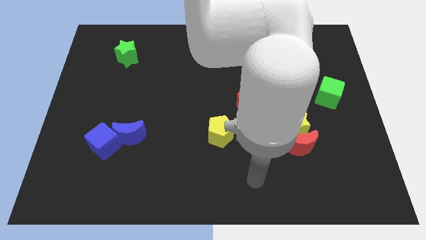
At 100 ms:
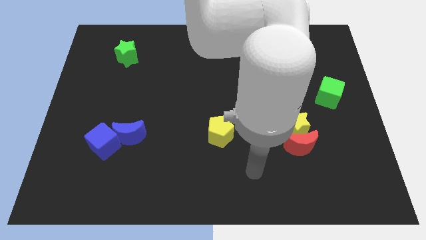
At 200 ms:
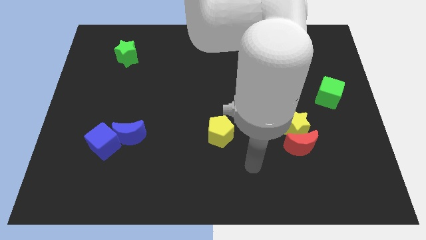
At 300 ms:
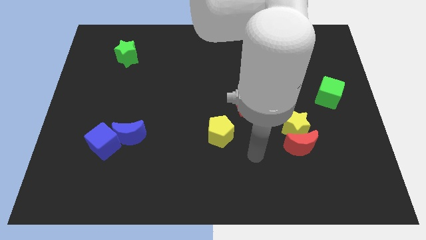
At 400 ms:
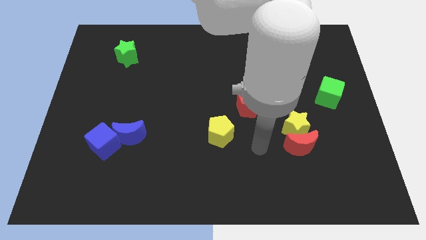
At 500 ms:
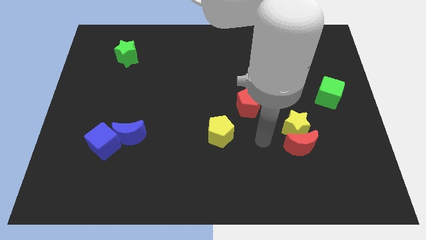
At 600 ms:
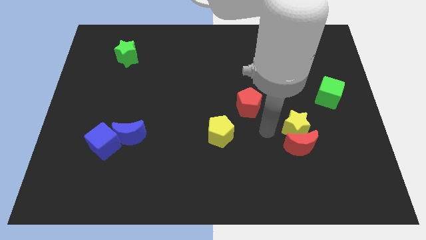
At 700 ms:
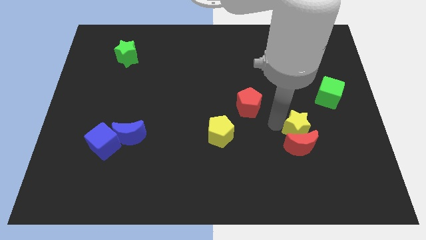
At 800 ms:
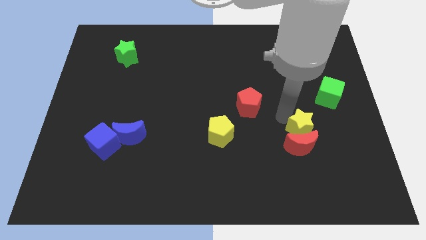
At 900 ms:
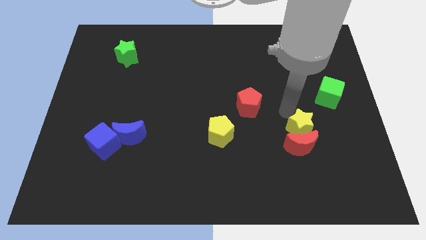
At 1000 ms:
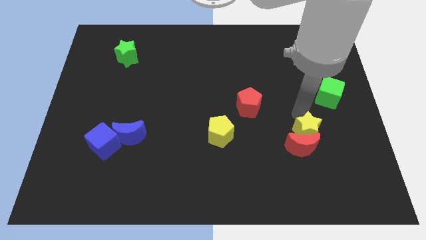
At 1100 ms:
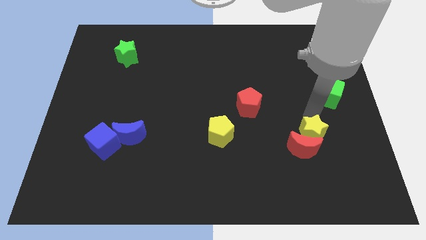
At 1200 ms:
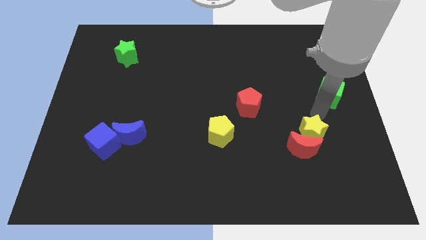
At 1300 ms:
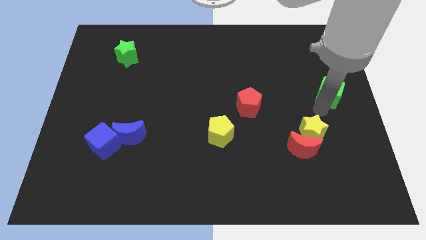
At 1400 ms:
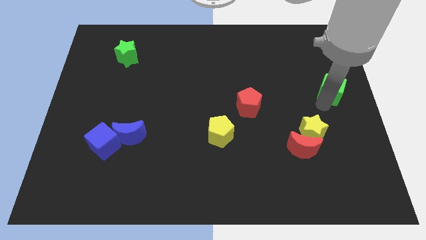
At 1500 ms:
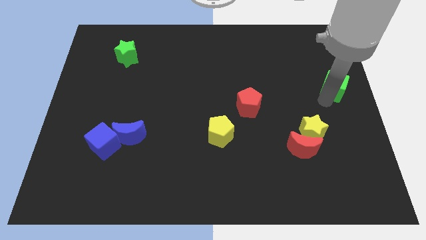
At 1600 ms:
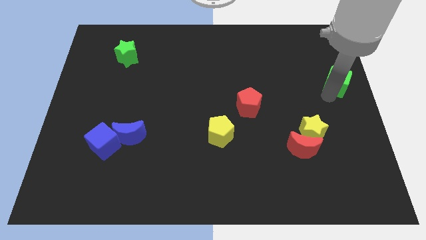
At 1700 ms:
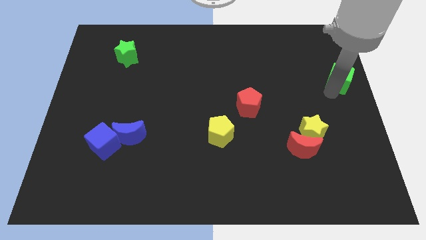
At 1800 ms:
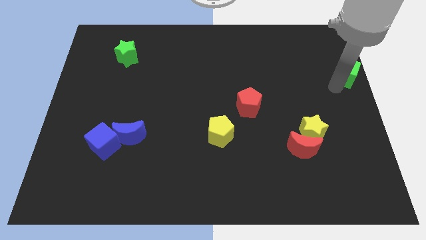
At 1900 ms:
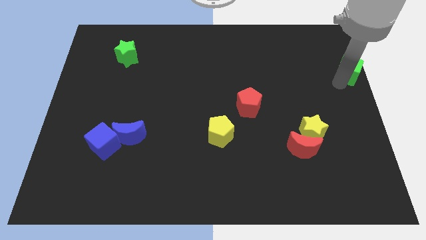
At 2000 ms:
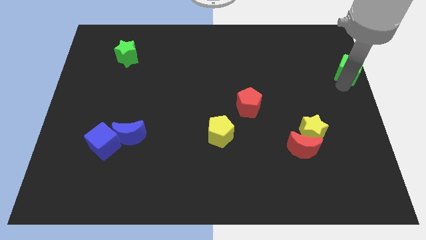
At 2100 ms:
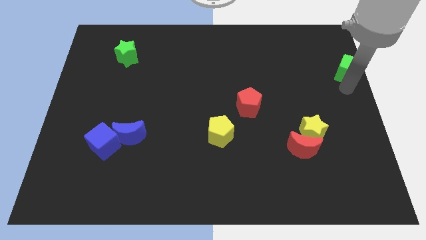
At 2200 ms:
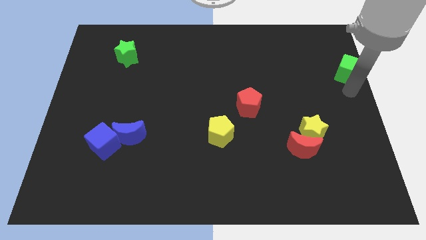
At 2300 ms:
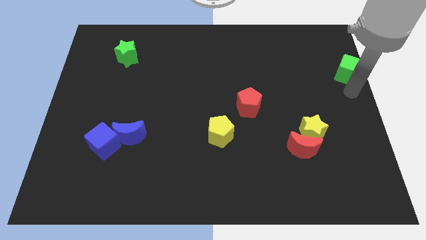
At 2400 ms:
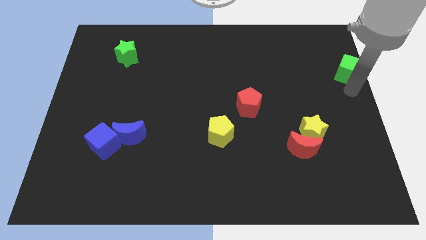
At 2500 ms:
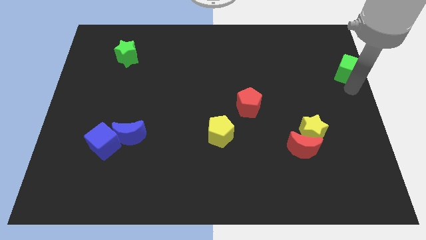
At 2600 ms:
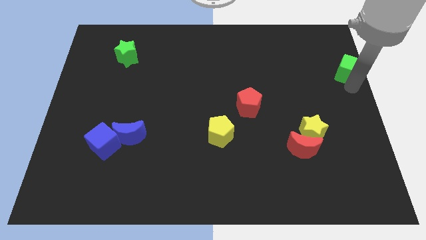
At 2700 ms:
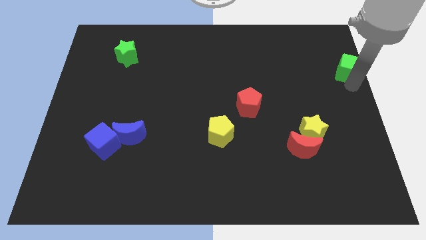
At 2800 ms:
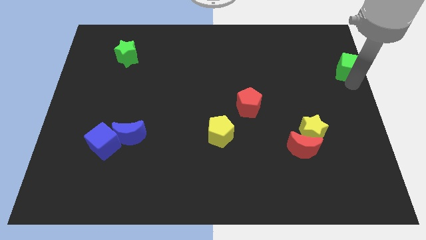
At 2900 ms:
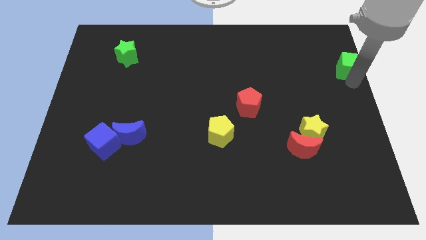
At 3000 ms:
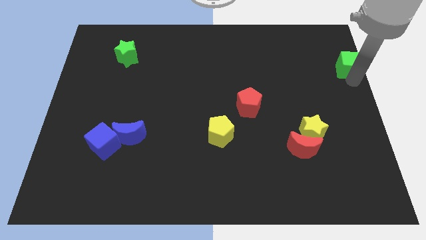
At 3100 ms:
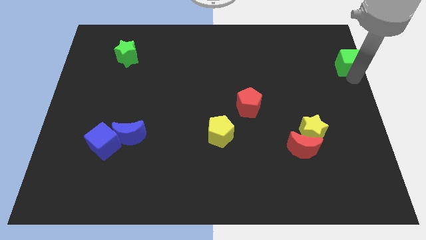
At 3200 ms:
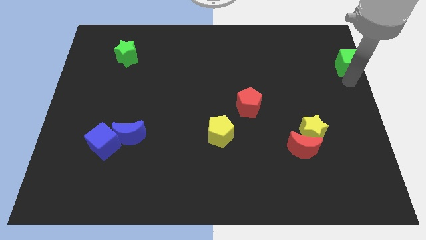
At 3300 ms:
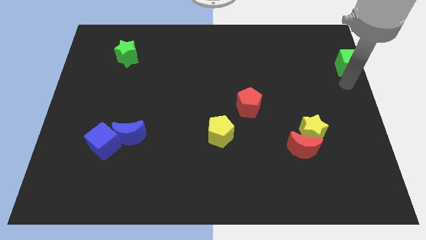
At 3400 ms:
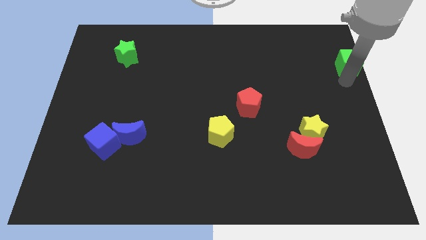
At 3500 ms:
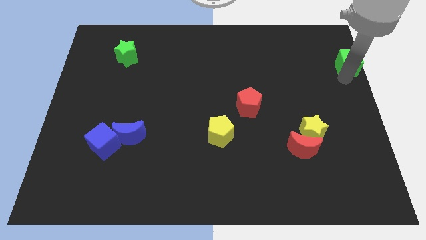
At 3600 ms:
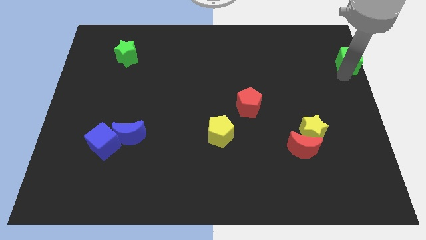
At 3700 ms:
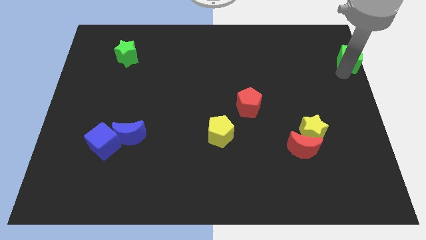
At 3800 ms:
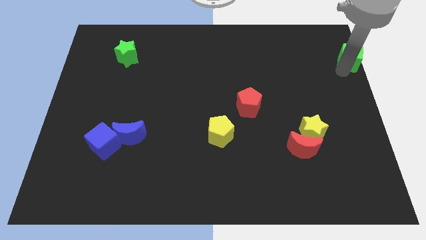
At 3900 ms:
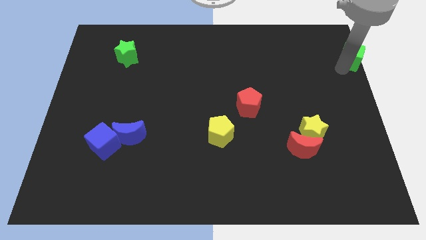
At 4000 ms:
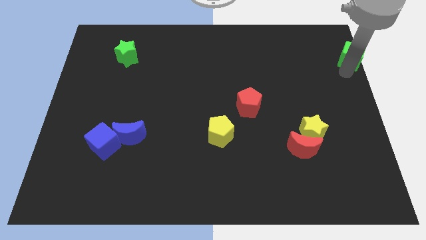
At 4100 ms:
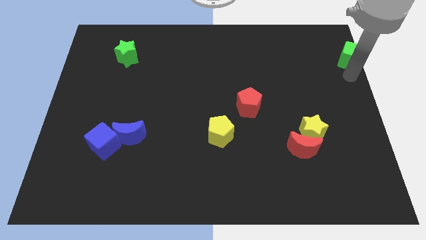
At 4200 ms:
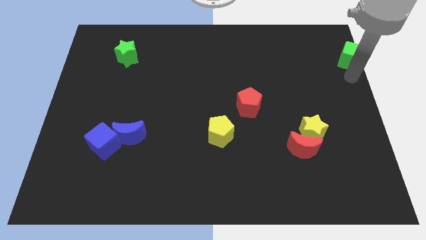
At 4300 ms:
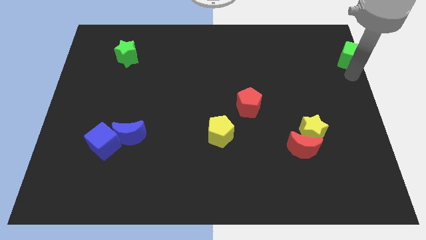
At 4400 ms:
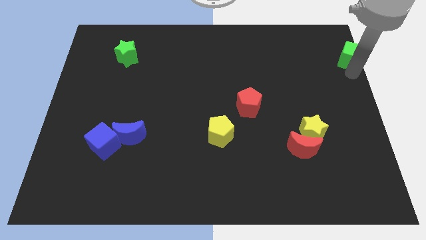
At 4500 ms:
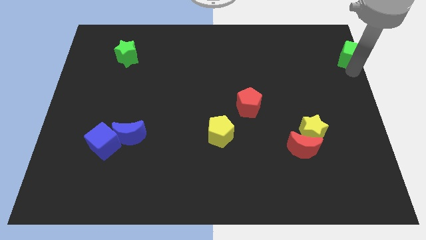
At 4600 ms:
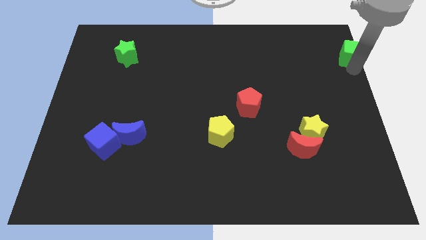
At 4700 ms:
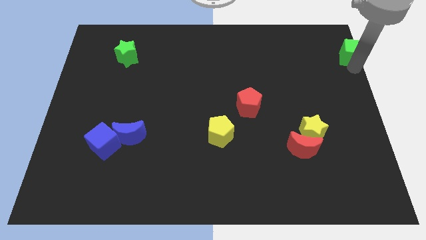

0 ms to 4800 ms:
push the green cube to the top right

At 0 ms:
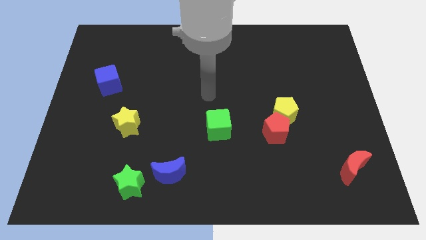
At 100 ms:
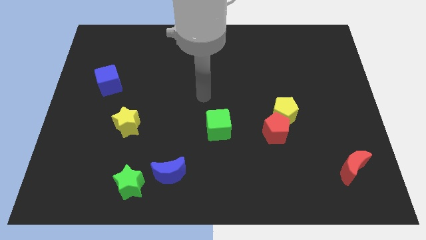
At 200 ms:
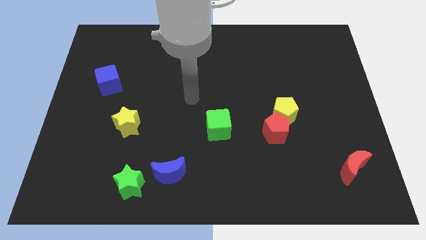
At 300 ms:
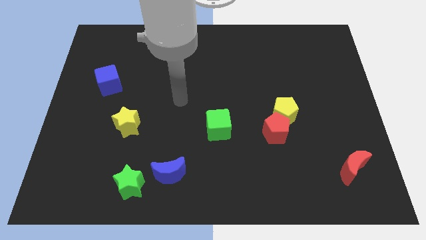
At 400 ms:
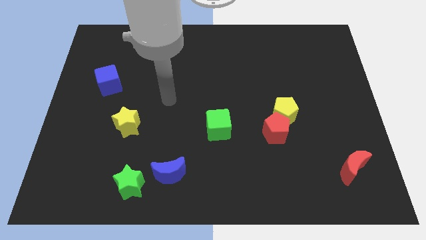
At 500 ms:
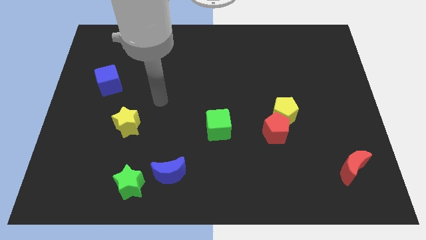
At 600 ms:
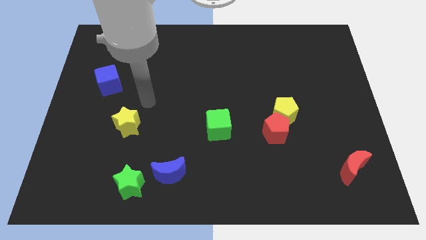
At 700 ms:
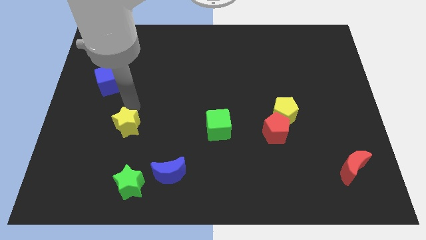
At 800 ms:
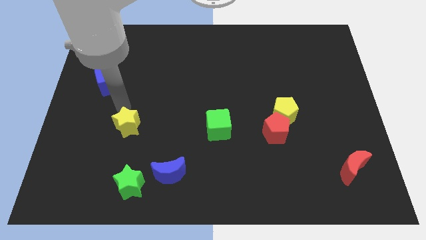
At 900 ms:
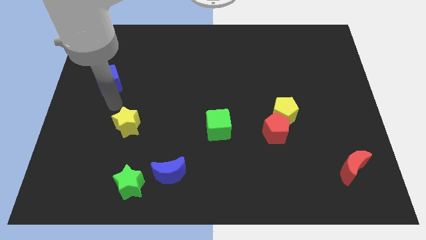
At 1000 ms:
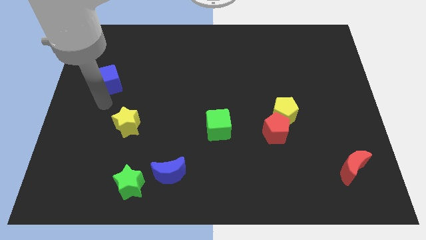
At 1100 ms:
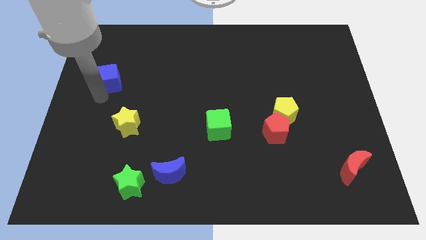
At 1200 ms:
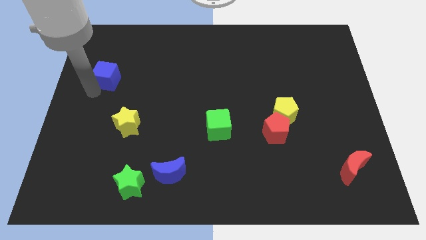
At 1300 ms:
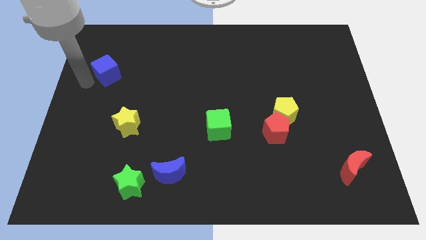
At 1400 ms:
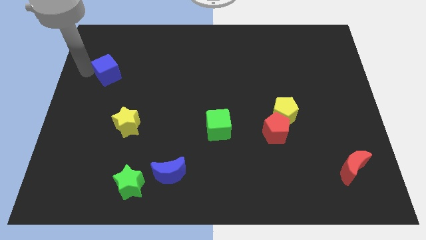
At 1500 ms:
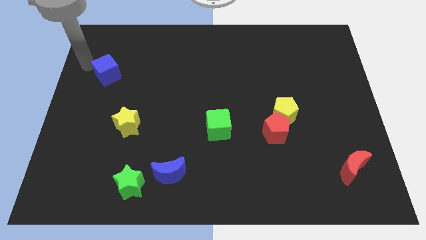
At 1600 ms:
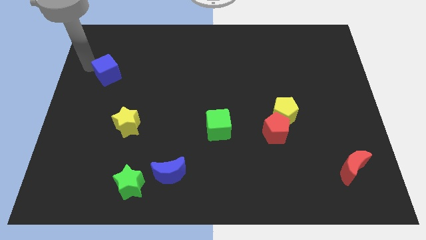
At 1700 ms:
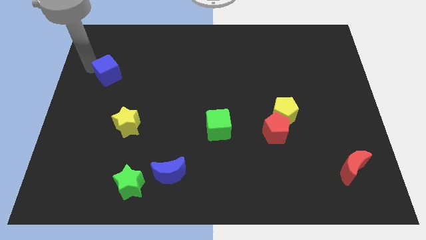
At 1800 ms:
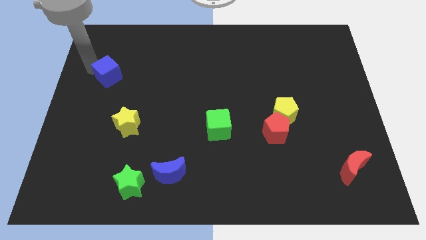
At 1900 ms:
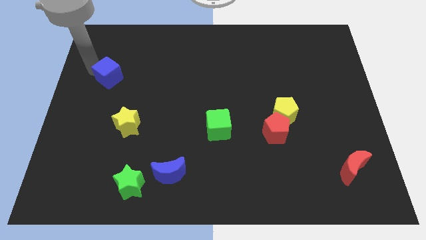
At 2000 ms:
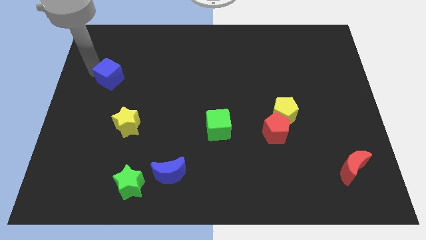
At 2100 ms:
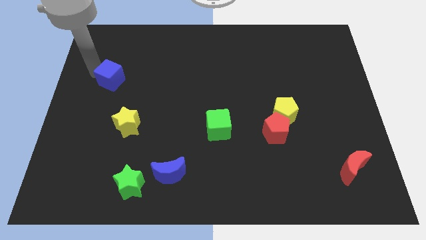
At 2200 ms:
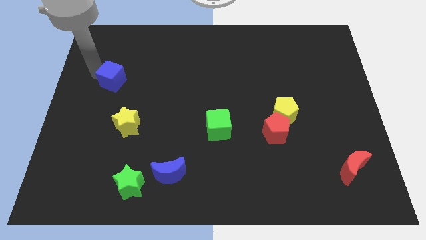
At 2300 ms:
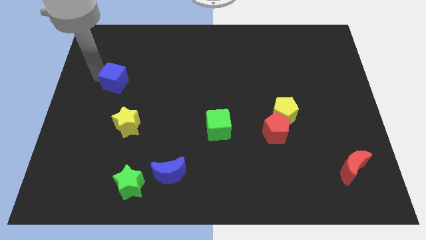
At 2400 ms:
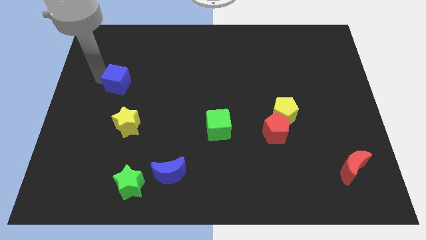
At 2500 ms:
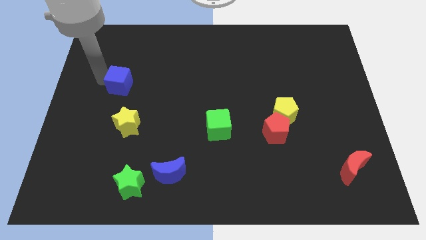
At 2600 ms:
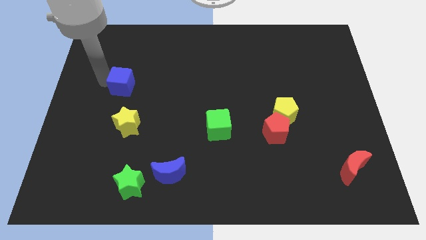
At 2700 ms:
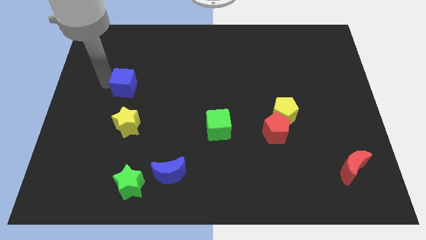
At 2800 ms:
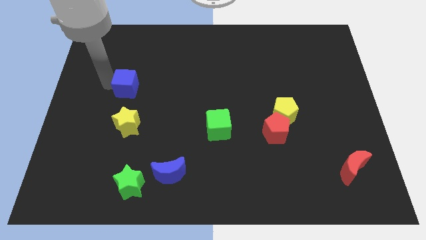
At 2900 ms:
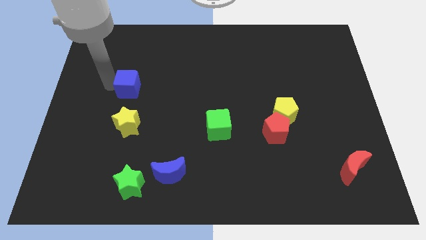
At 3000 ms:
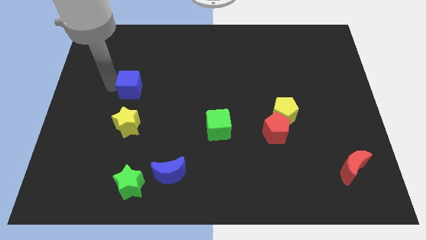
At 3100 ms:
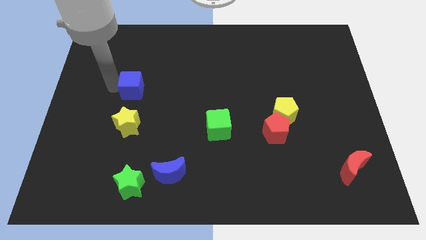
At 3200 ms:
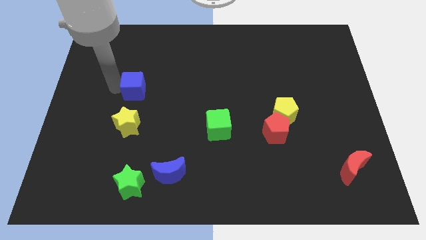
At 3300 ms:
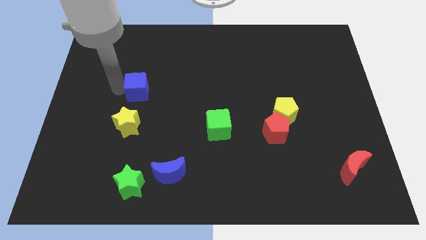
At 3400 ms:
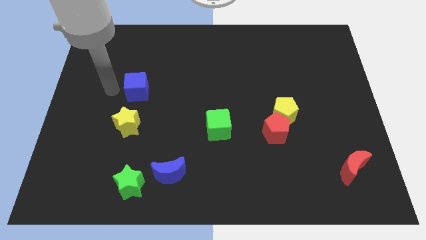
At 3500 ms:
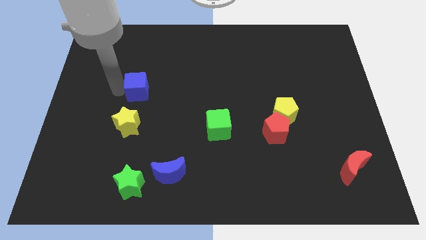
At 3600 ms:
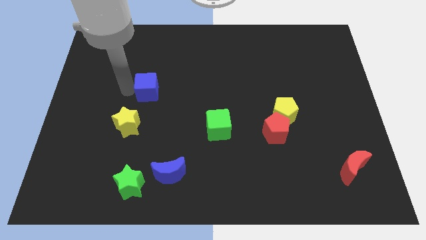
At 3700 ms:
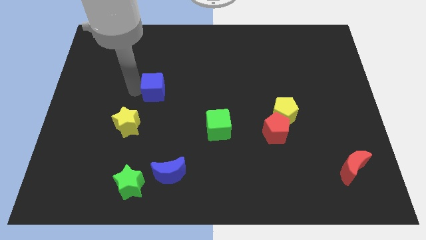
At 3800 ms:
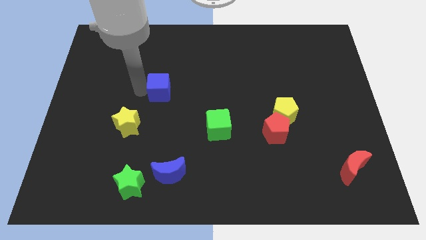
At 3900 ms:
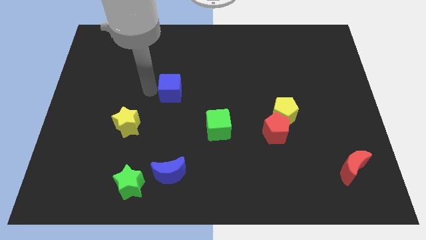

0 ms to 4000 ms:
slide the blue cube to the center of the board
